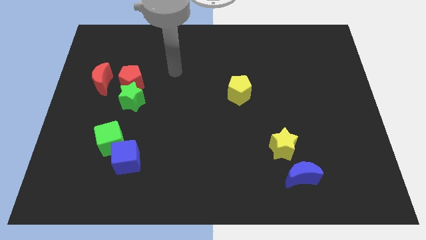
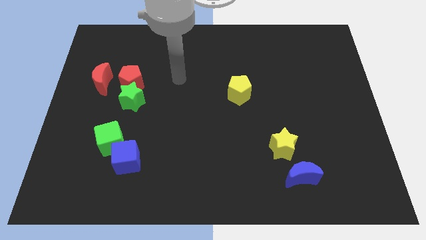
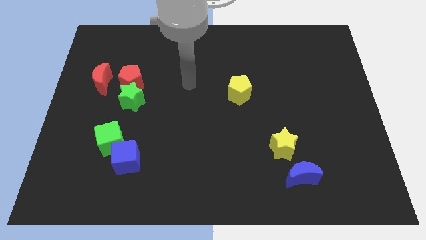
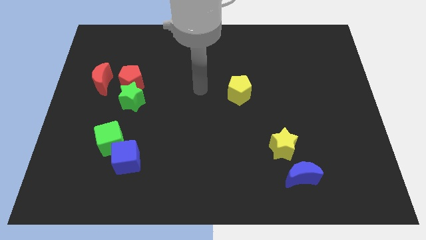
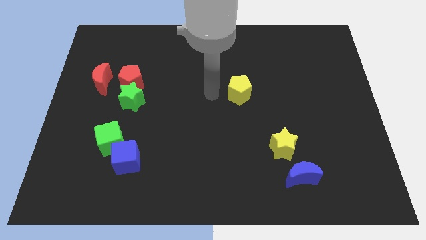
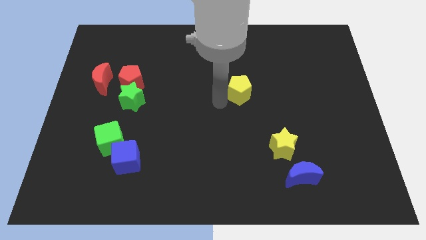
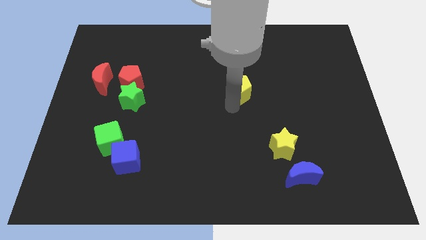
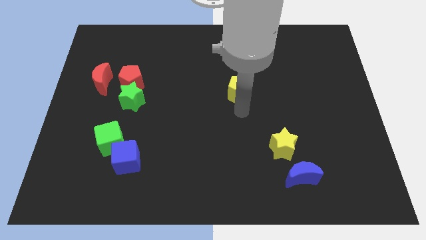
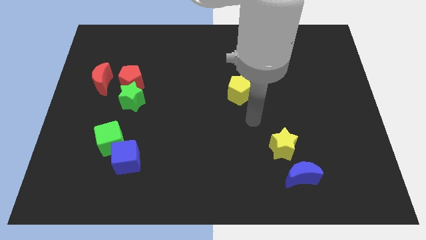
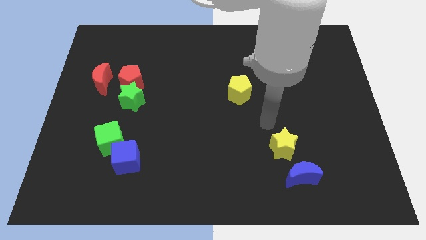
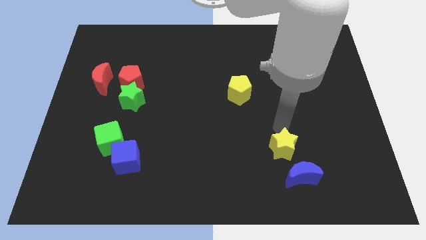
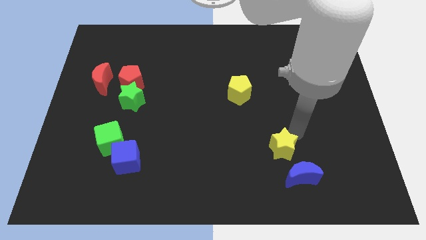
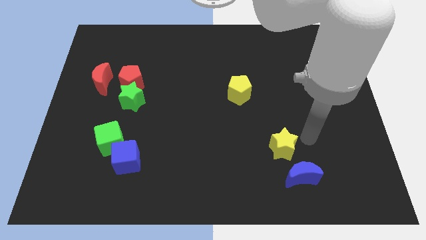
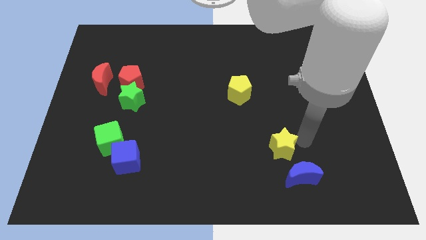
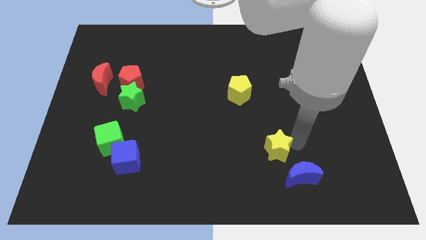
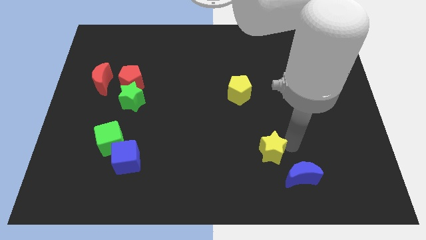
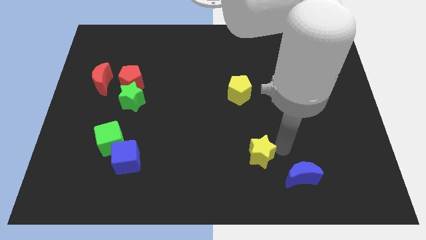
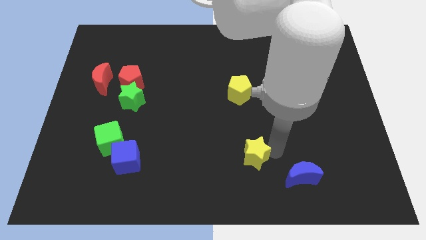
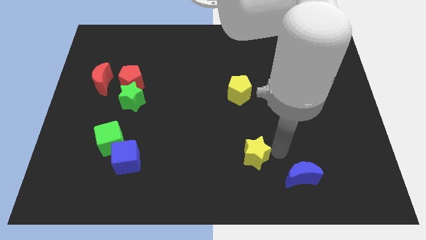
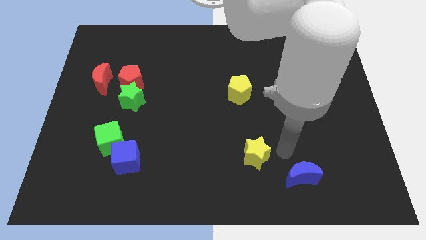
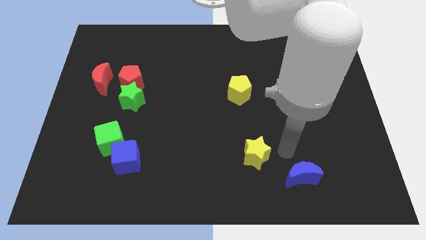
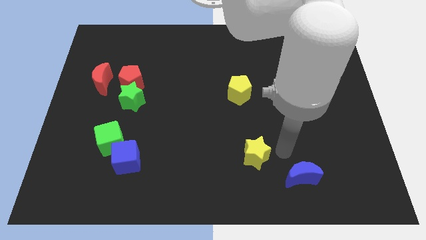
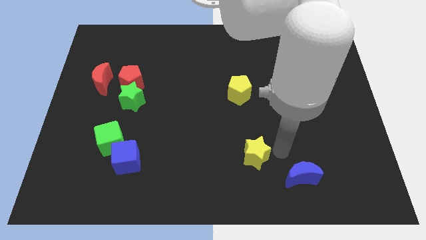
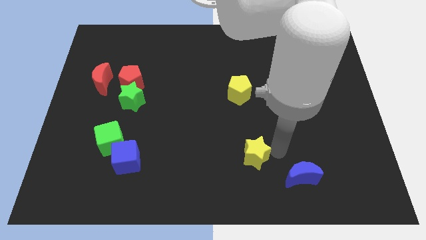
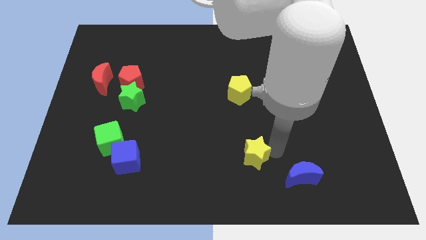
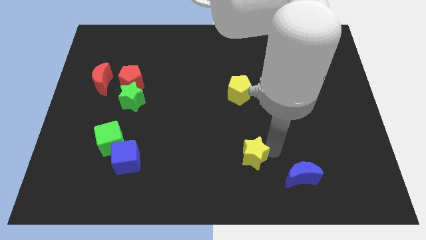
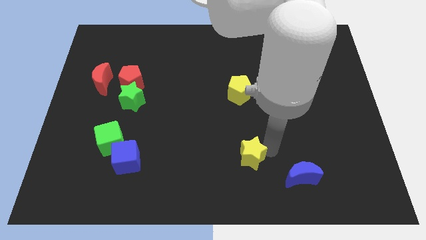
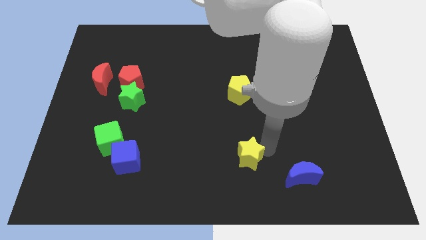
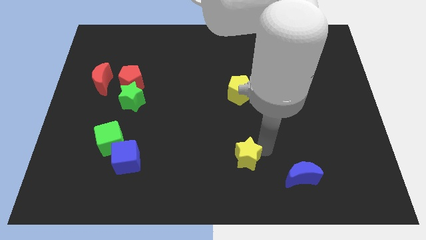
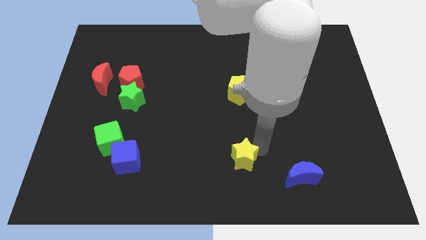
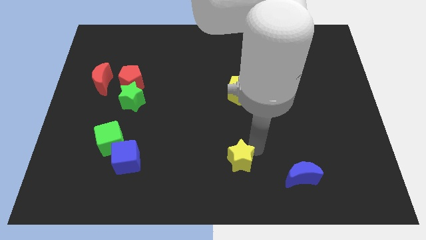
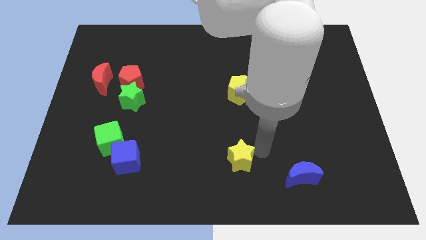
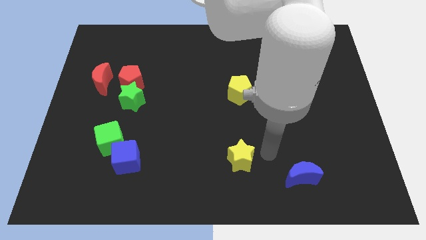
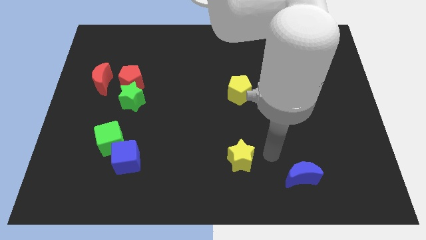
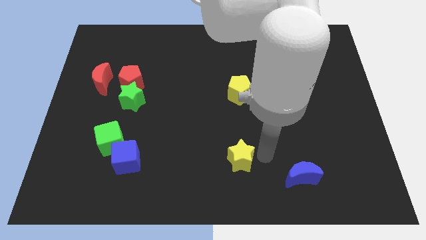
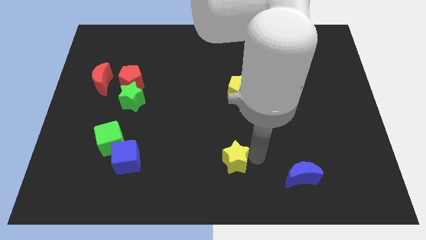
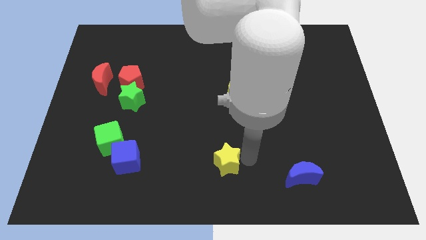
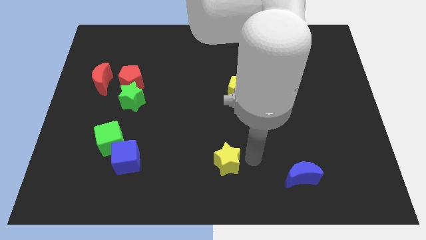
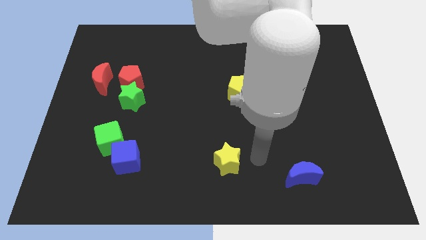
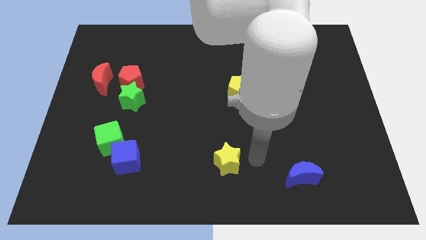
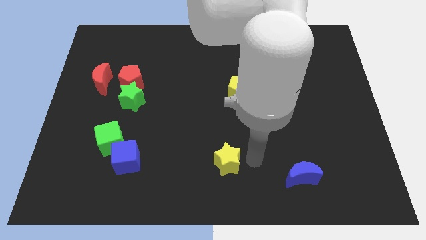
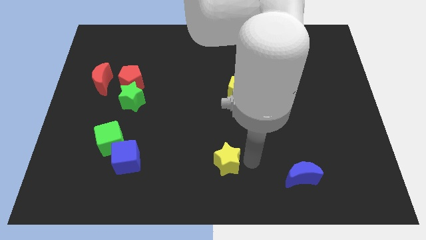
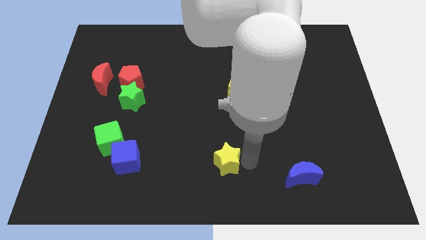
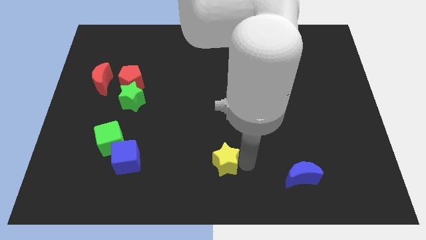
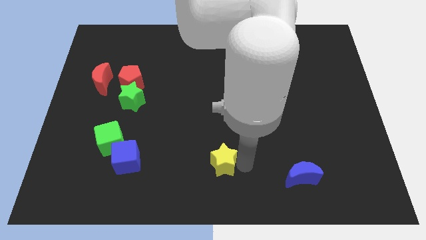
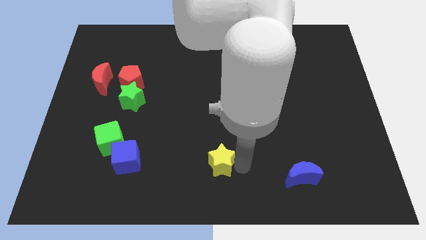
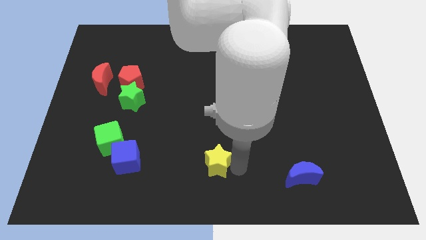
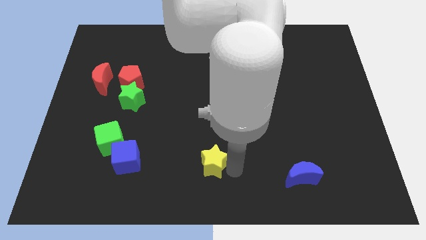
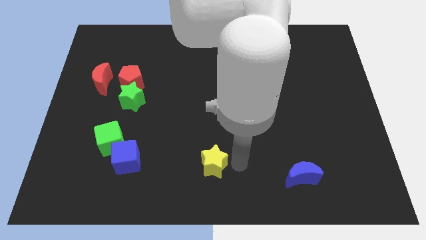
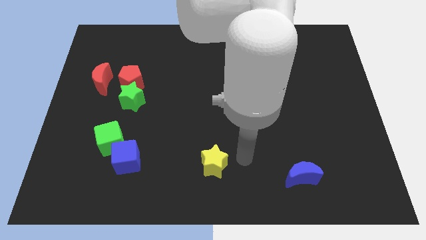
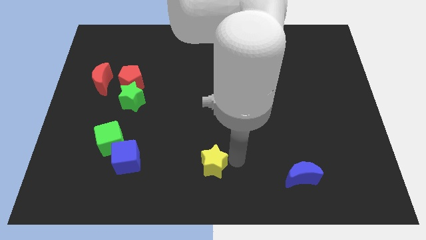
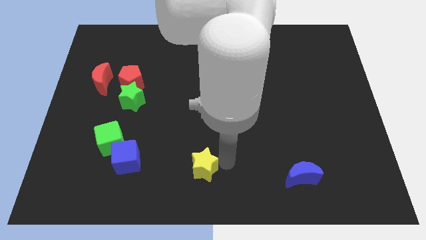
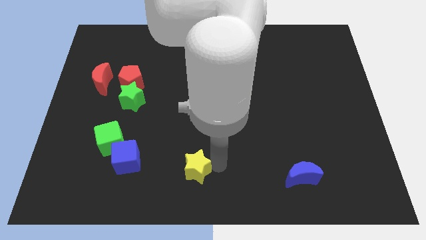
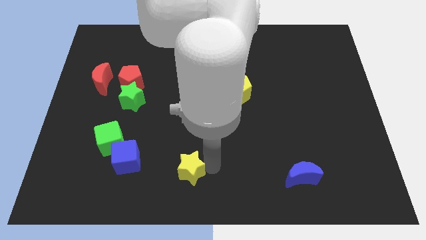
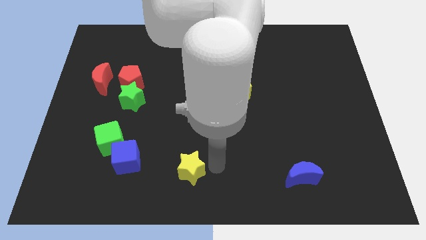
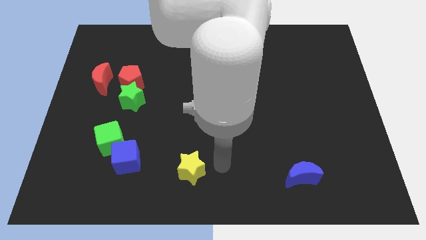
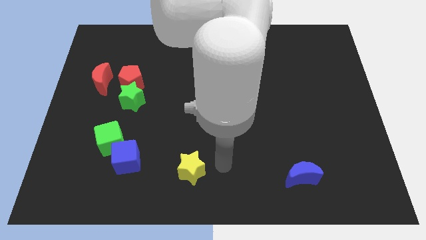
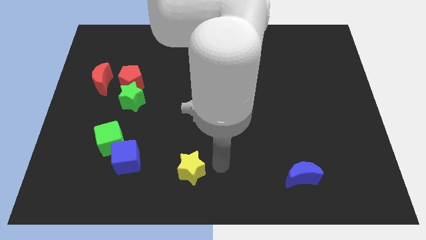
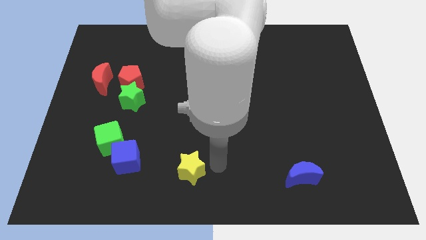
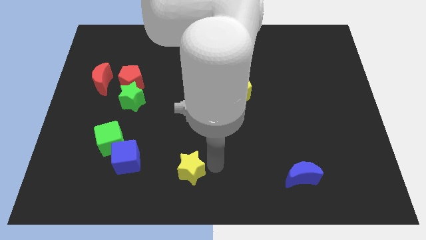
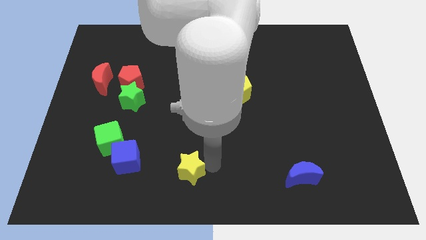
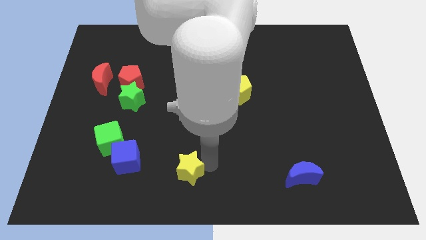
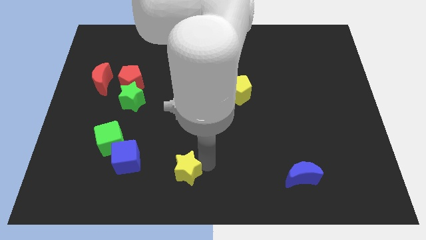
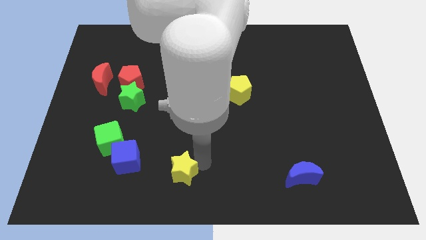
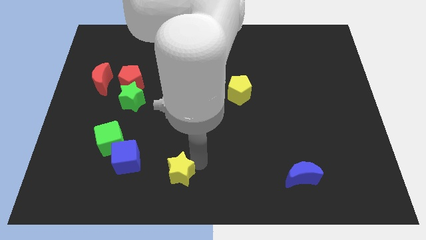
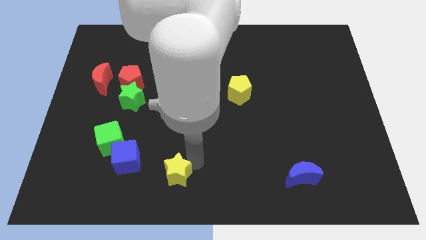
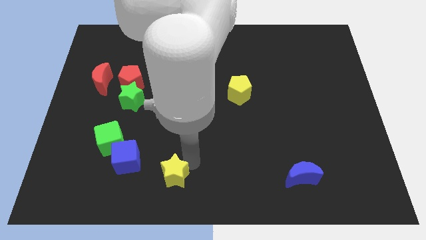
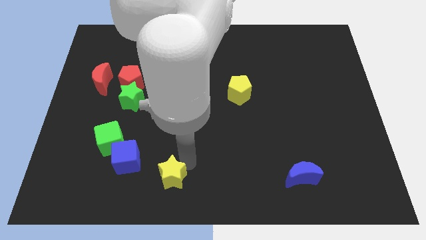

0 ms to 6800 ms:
push the yellow star diagonally down and to the right of the blue cube
